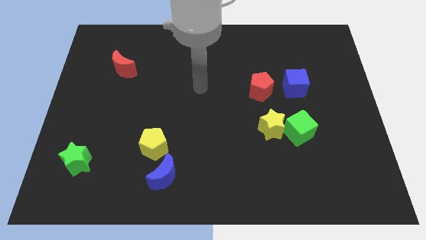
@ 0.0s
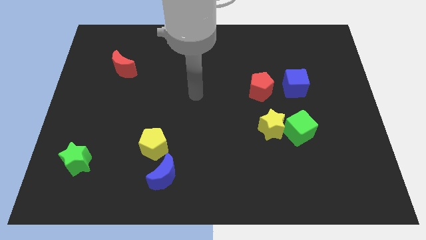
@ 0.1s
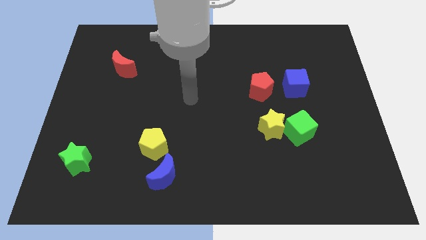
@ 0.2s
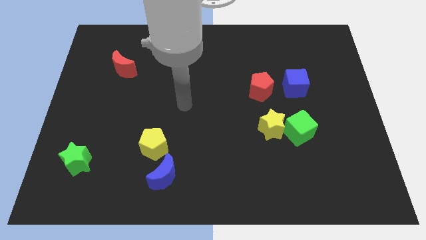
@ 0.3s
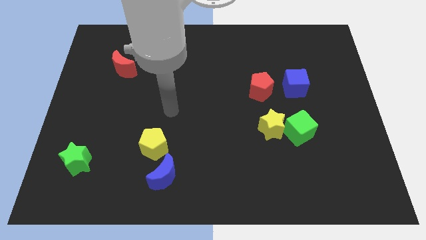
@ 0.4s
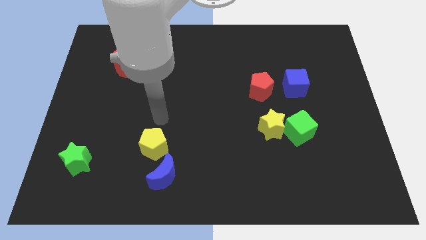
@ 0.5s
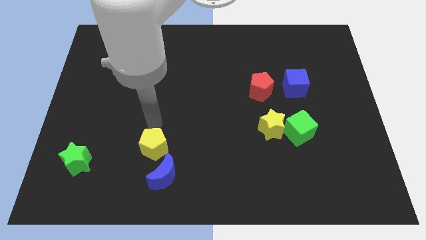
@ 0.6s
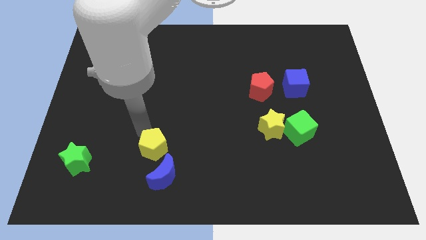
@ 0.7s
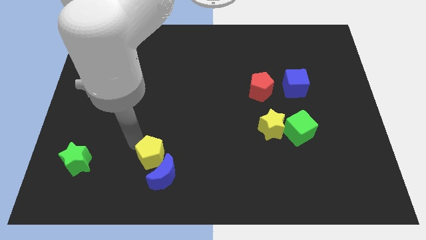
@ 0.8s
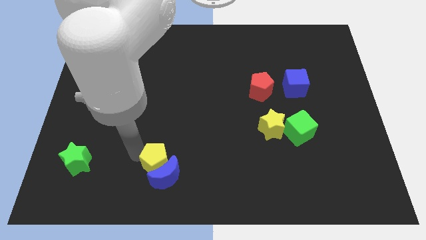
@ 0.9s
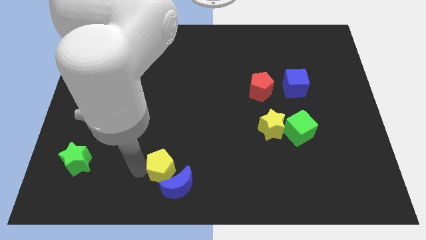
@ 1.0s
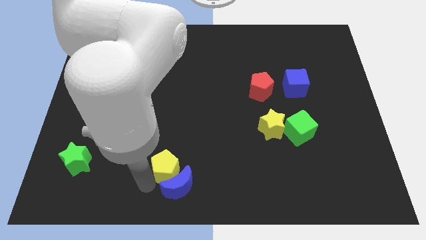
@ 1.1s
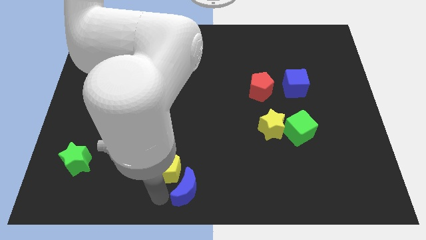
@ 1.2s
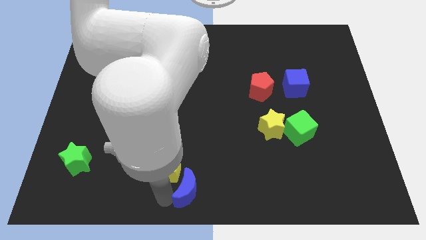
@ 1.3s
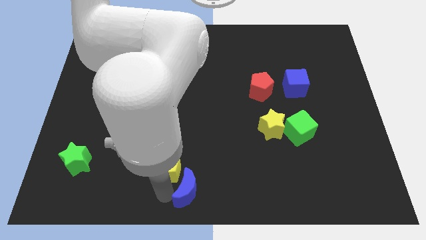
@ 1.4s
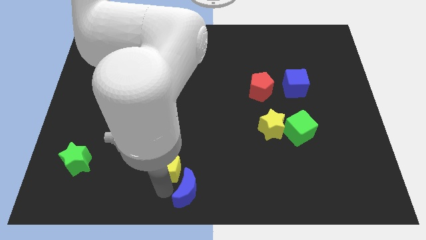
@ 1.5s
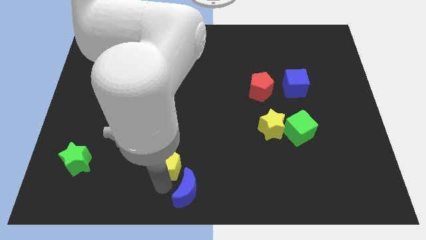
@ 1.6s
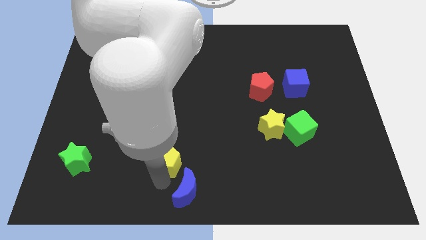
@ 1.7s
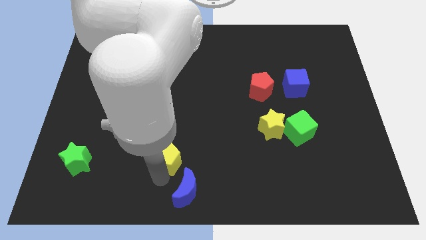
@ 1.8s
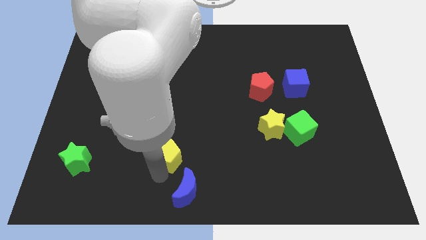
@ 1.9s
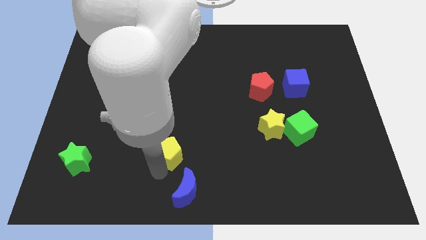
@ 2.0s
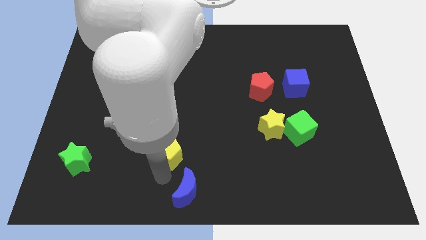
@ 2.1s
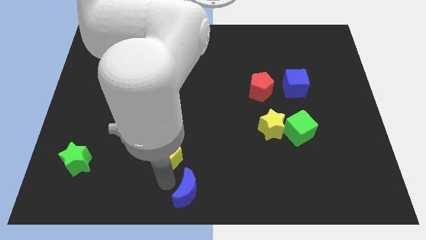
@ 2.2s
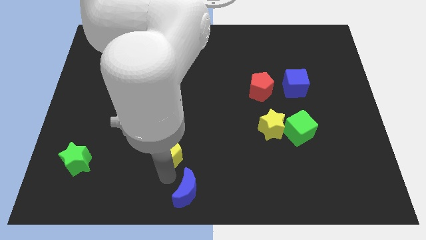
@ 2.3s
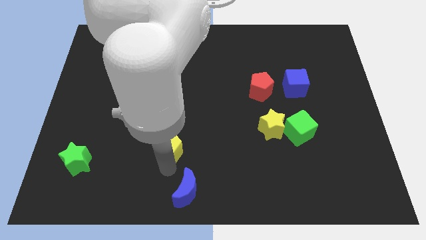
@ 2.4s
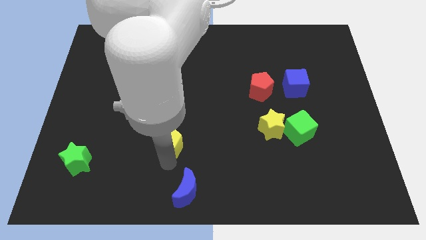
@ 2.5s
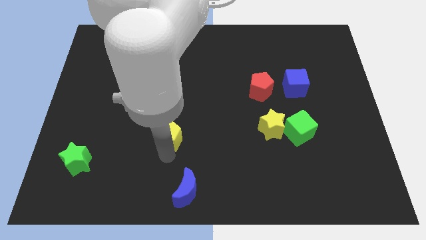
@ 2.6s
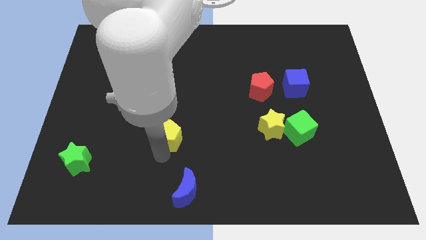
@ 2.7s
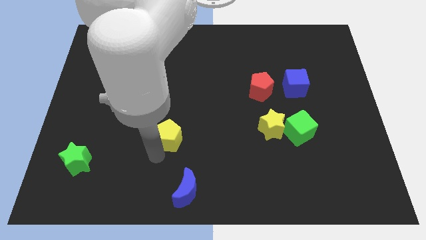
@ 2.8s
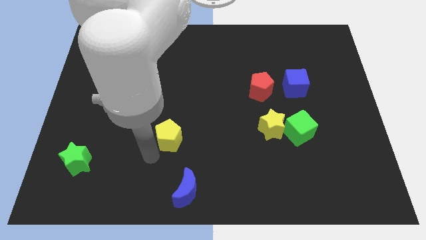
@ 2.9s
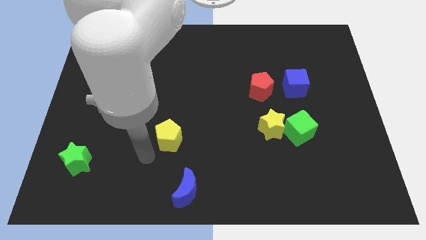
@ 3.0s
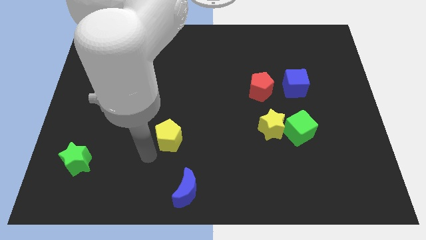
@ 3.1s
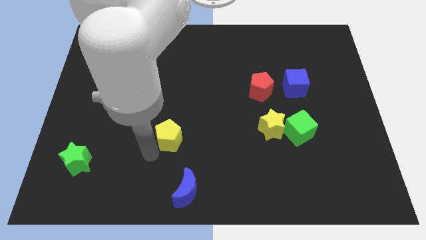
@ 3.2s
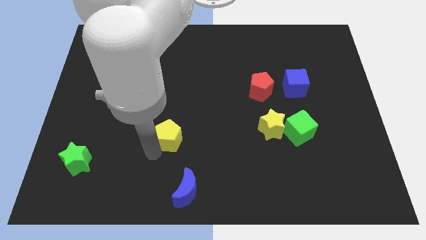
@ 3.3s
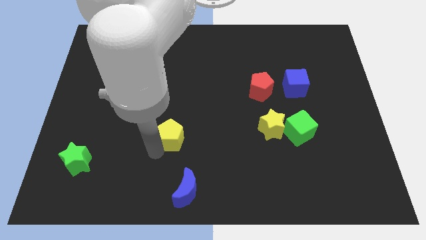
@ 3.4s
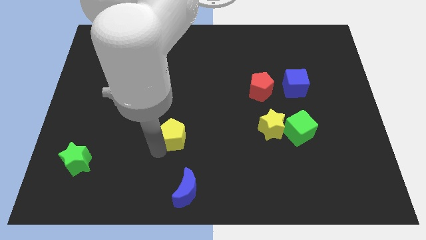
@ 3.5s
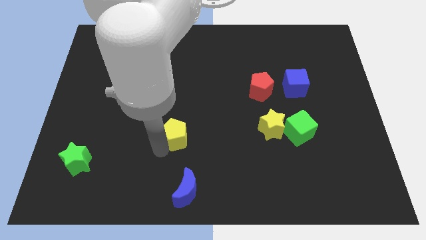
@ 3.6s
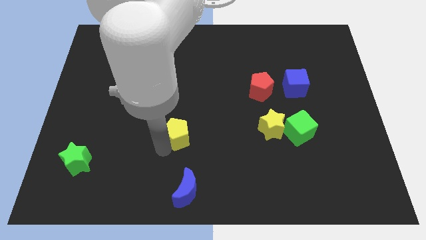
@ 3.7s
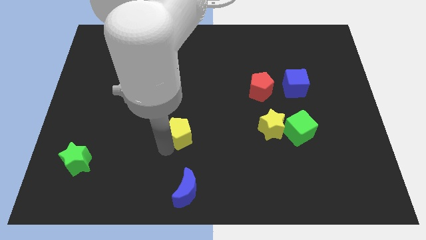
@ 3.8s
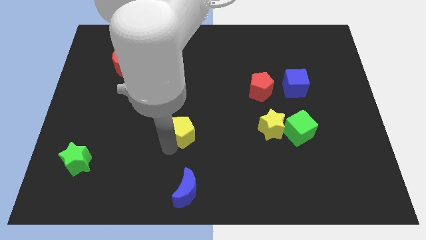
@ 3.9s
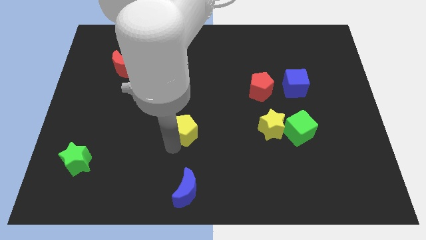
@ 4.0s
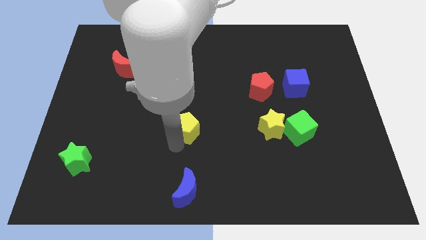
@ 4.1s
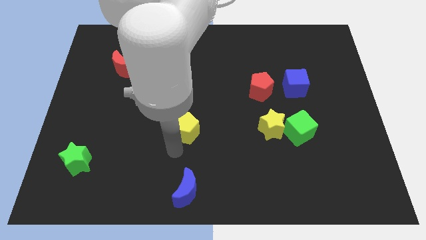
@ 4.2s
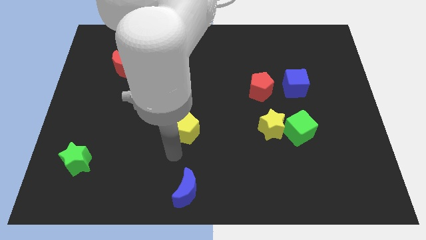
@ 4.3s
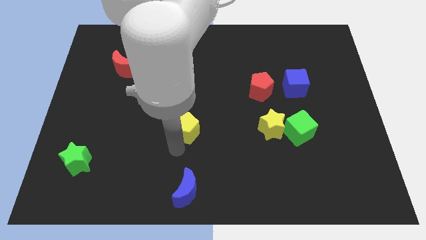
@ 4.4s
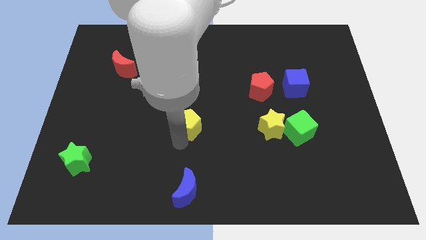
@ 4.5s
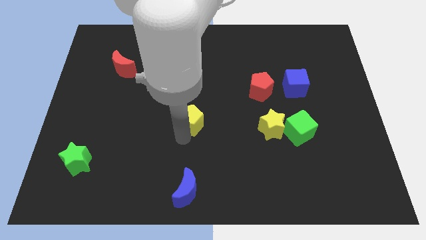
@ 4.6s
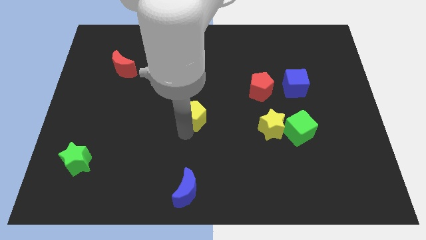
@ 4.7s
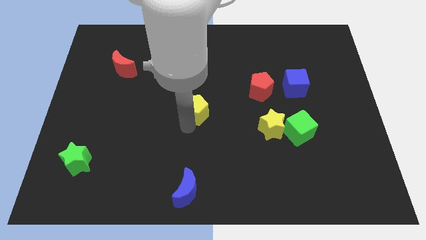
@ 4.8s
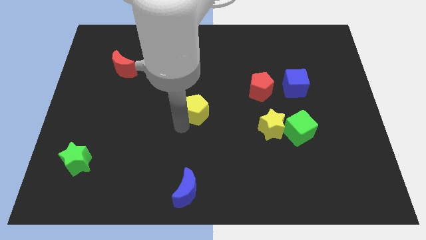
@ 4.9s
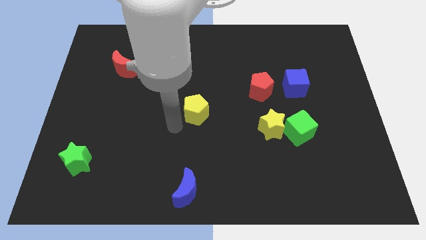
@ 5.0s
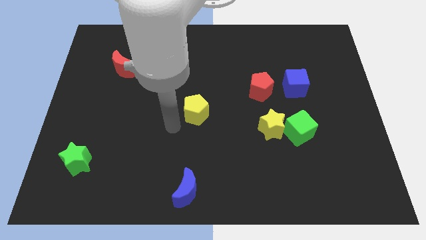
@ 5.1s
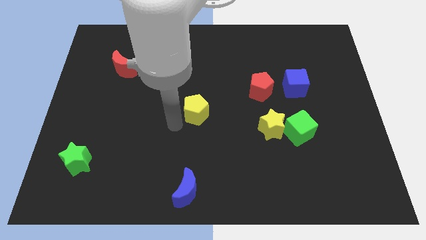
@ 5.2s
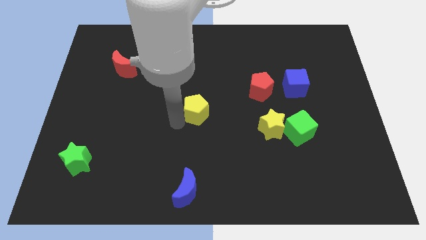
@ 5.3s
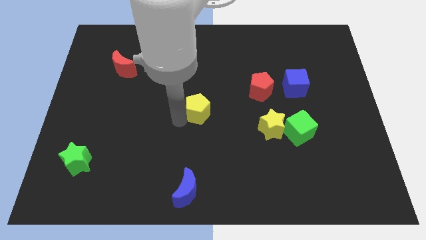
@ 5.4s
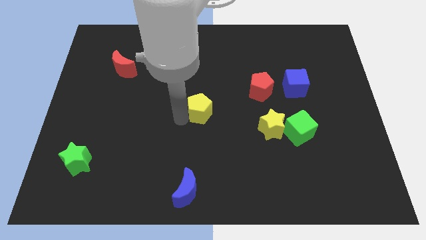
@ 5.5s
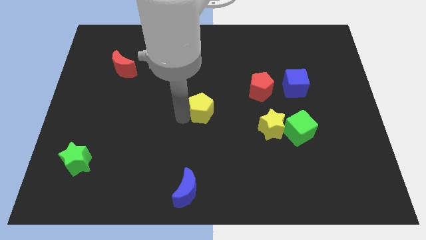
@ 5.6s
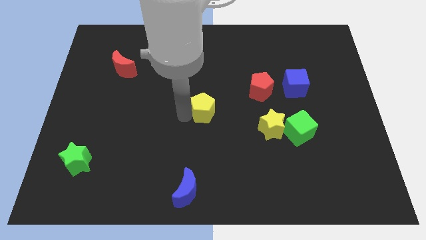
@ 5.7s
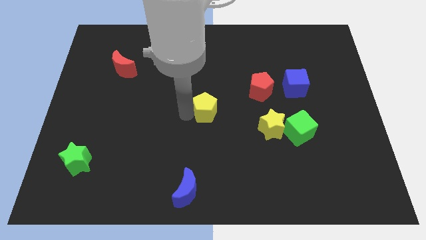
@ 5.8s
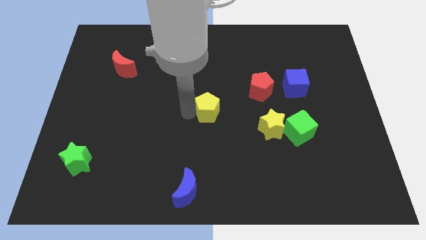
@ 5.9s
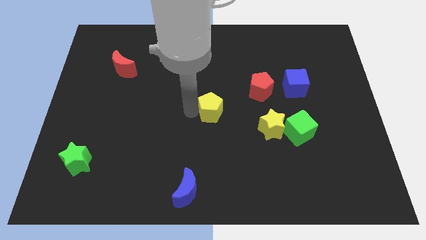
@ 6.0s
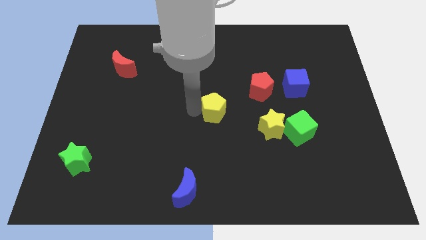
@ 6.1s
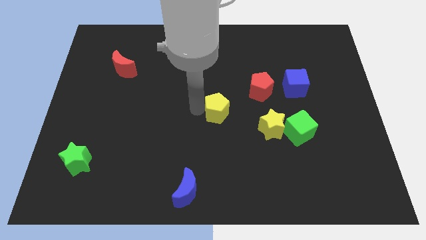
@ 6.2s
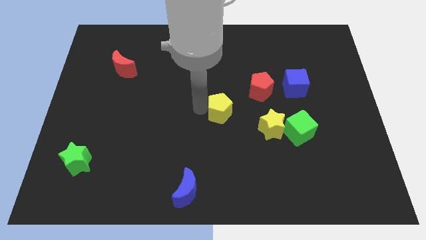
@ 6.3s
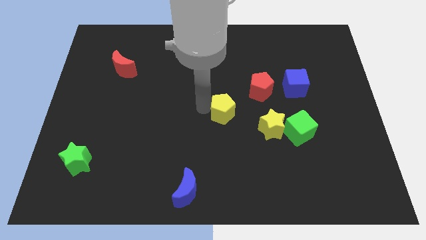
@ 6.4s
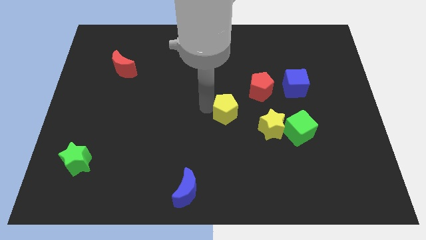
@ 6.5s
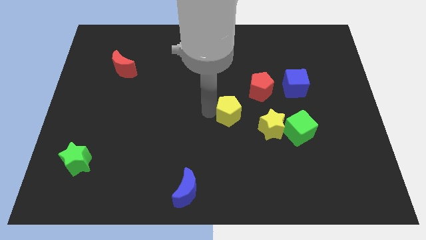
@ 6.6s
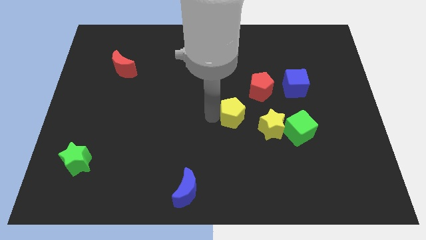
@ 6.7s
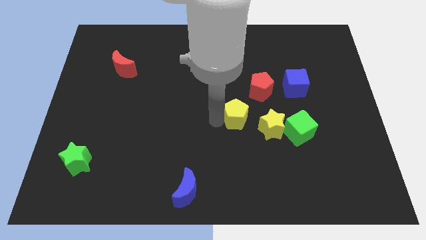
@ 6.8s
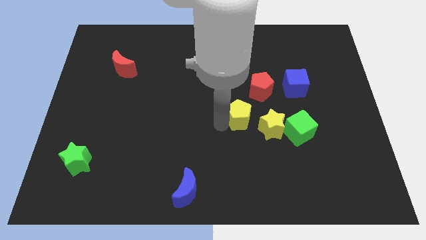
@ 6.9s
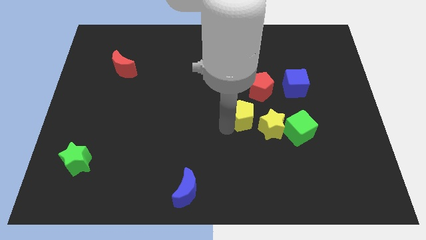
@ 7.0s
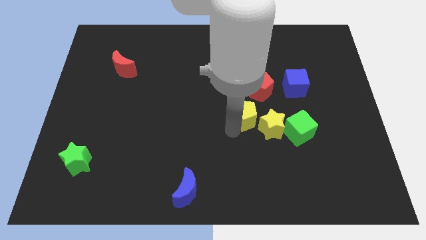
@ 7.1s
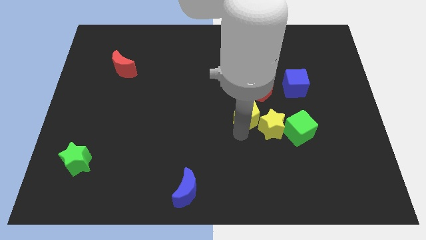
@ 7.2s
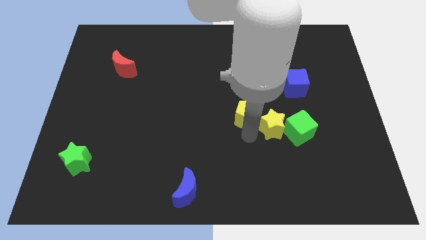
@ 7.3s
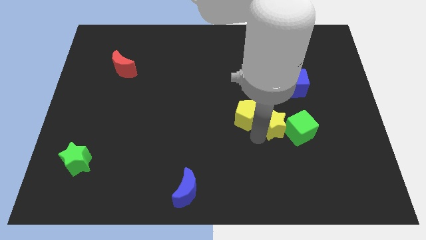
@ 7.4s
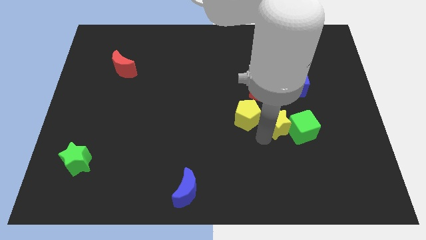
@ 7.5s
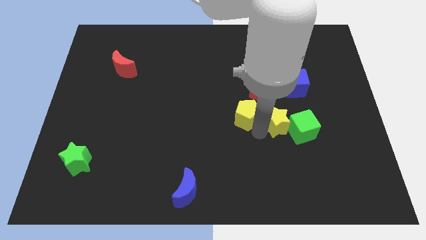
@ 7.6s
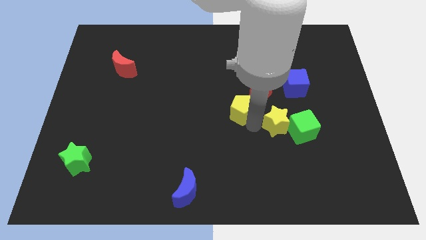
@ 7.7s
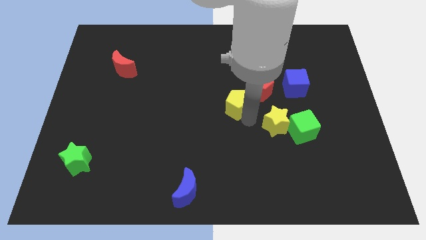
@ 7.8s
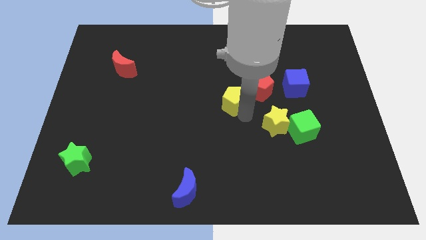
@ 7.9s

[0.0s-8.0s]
move the yellow pentagon upwards and to the right

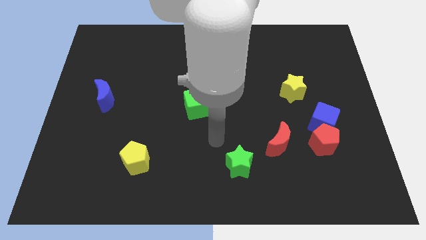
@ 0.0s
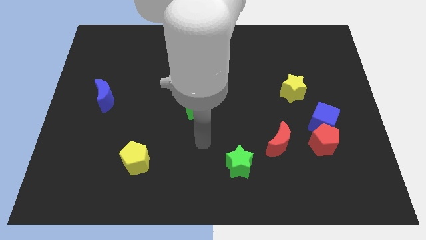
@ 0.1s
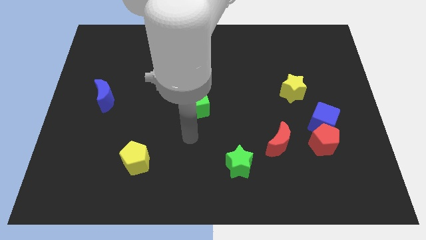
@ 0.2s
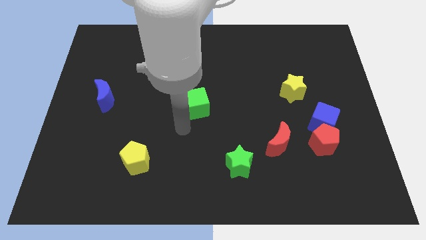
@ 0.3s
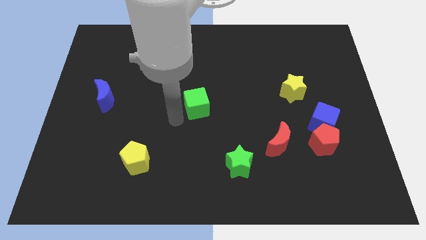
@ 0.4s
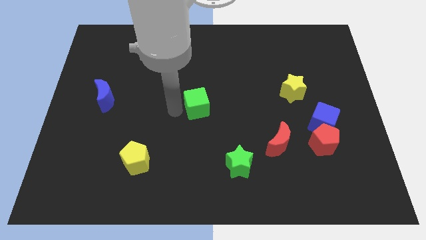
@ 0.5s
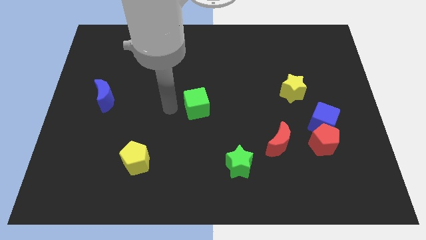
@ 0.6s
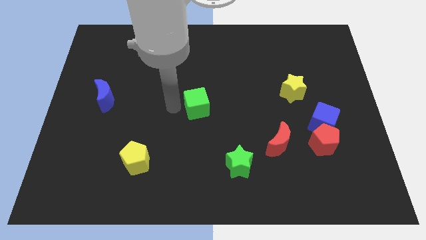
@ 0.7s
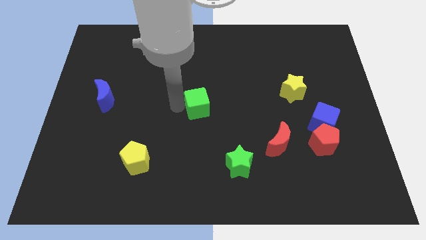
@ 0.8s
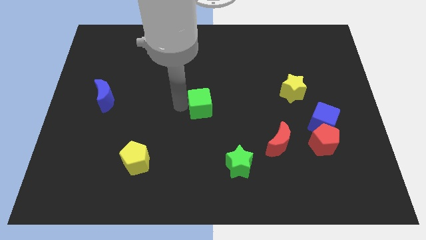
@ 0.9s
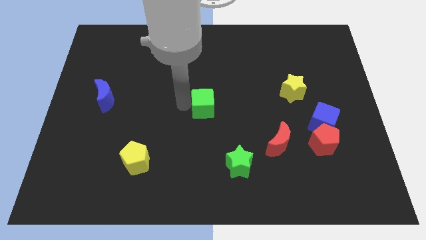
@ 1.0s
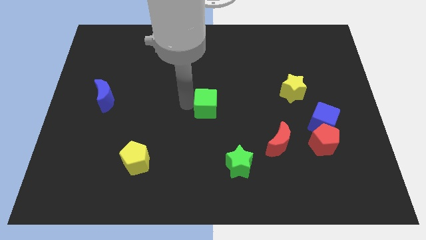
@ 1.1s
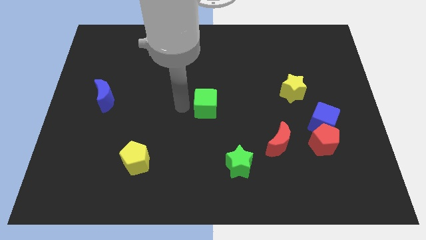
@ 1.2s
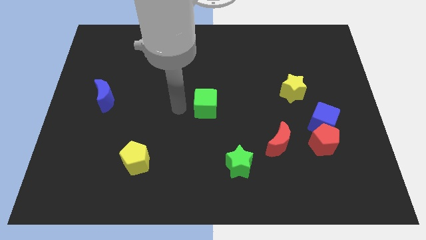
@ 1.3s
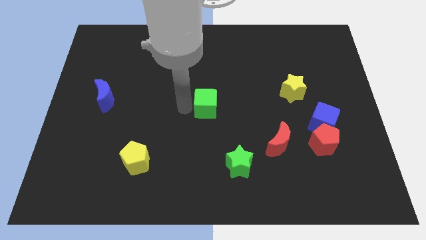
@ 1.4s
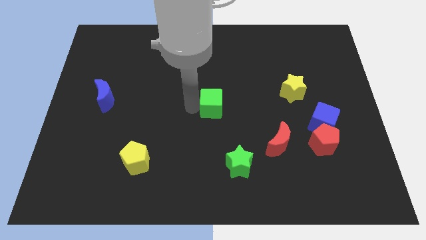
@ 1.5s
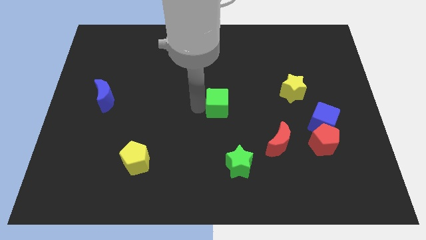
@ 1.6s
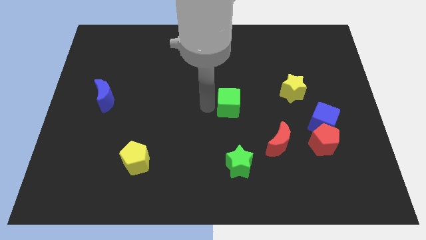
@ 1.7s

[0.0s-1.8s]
move the green cube a bit right
